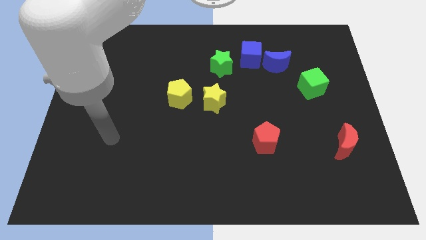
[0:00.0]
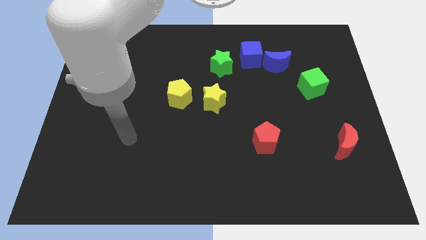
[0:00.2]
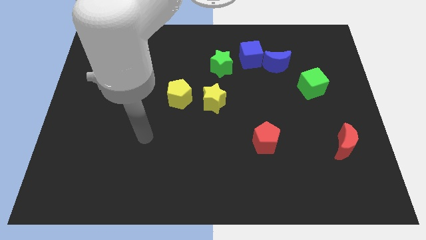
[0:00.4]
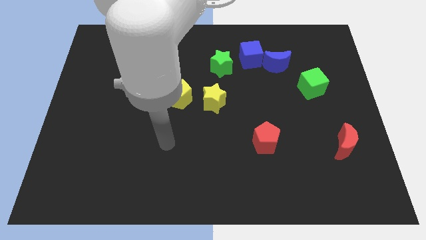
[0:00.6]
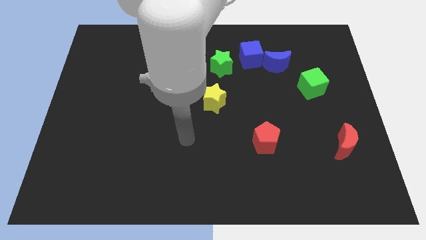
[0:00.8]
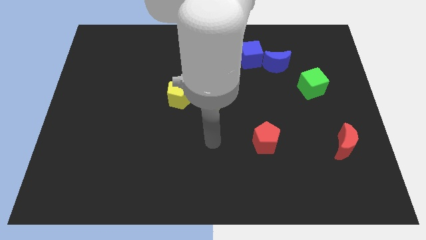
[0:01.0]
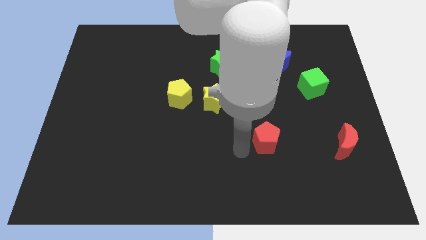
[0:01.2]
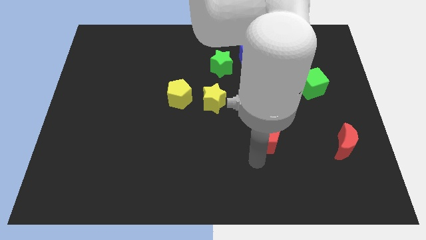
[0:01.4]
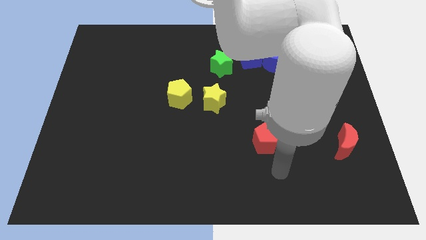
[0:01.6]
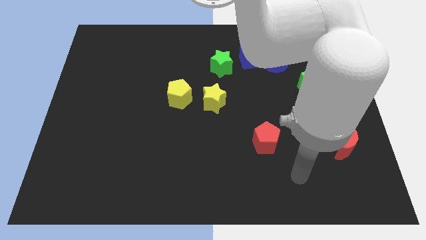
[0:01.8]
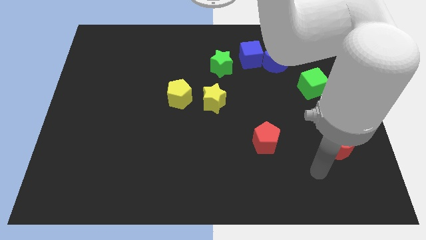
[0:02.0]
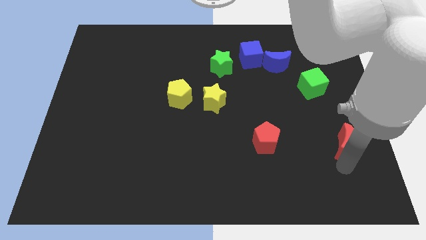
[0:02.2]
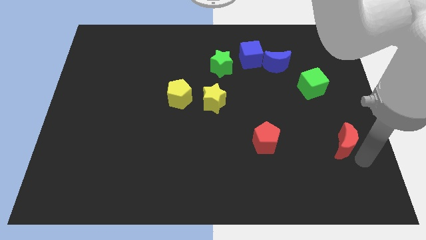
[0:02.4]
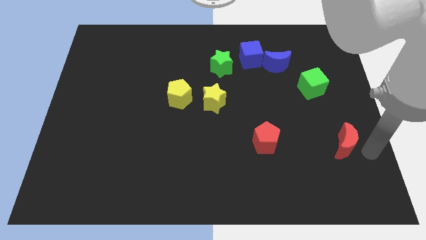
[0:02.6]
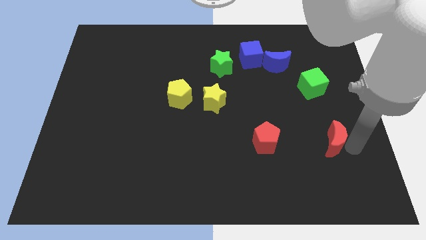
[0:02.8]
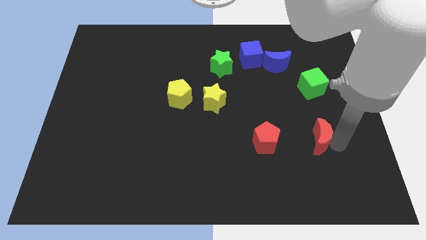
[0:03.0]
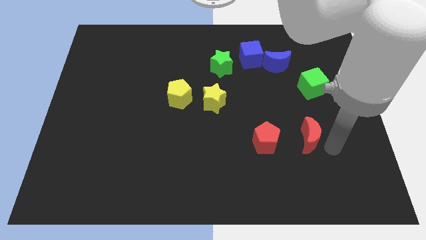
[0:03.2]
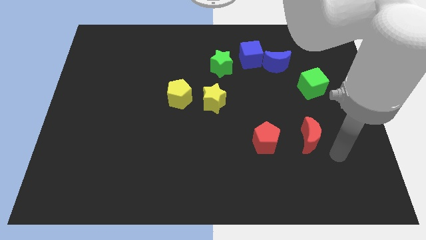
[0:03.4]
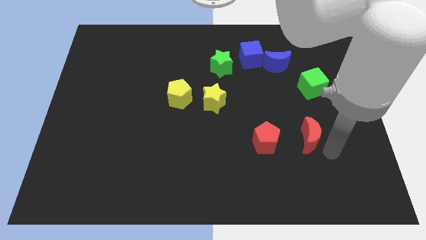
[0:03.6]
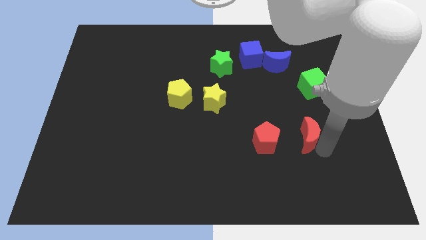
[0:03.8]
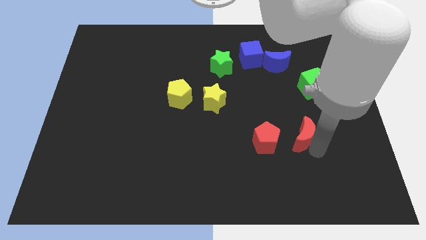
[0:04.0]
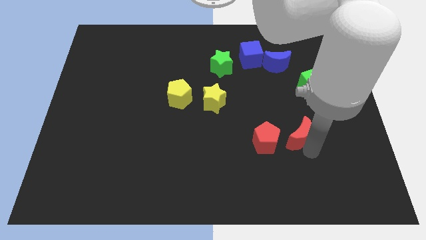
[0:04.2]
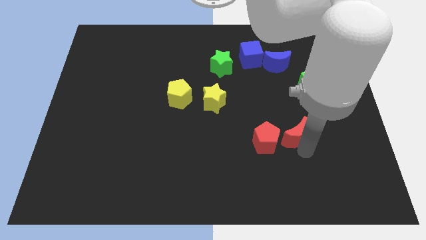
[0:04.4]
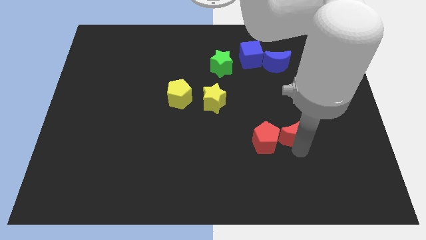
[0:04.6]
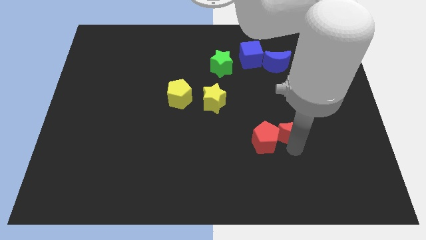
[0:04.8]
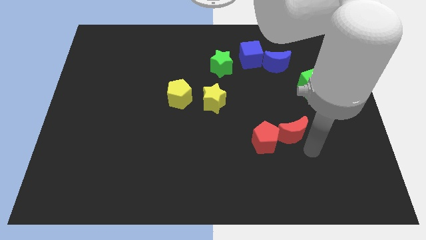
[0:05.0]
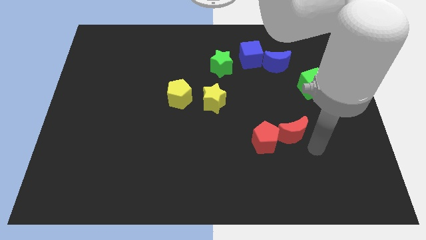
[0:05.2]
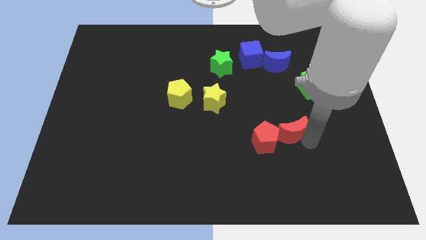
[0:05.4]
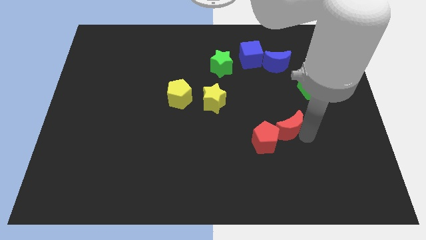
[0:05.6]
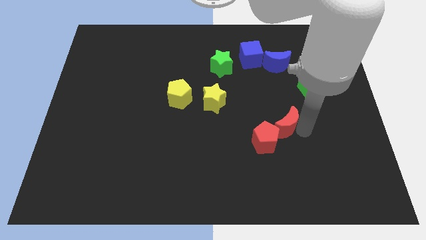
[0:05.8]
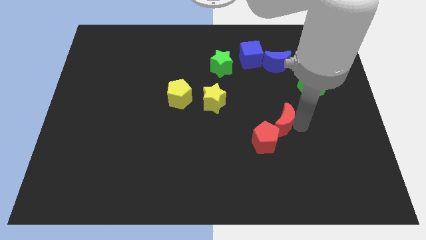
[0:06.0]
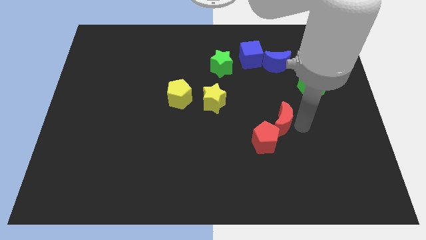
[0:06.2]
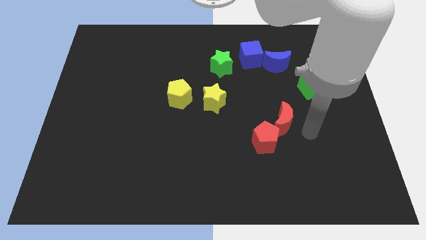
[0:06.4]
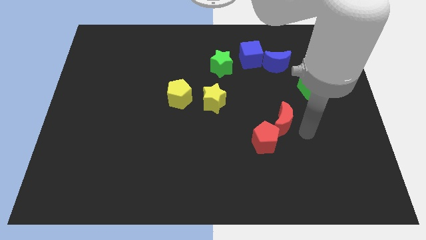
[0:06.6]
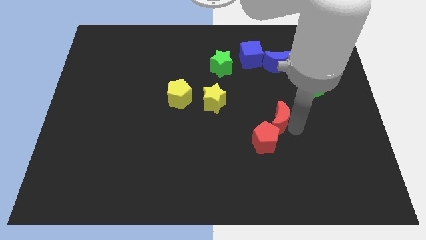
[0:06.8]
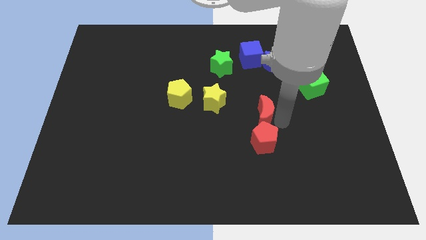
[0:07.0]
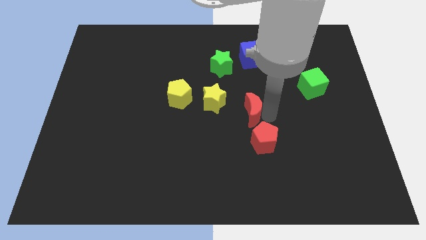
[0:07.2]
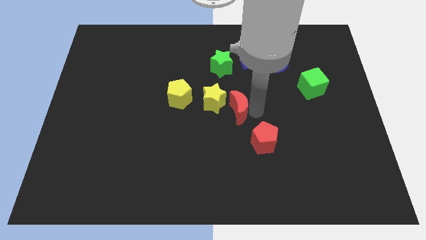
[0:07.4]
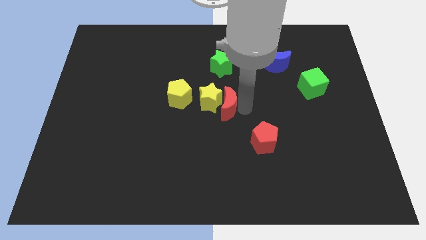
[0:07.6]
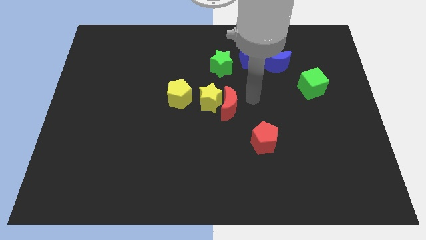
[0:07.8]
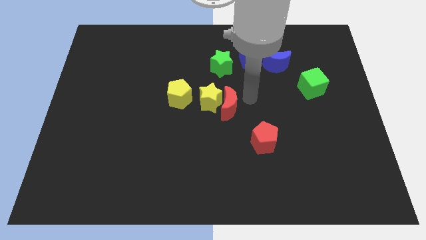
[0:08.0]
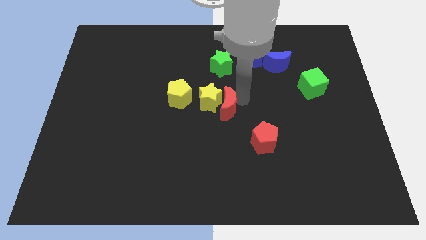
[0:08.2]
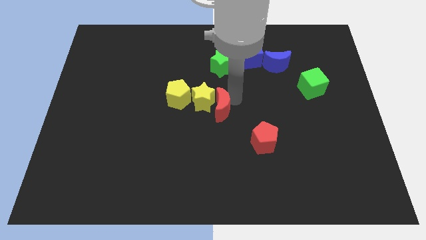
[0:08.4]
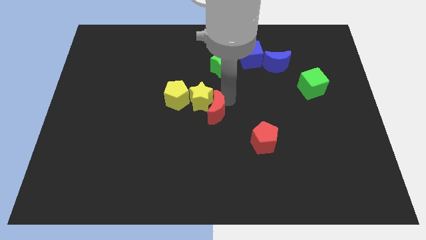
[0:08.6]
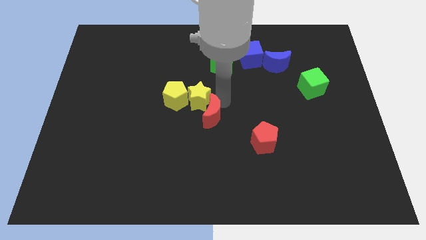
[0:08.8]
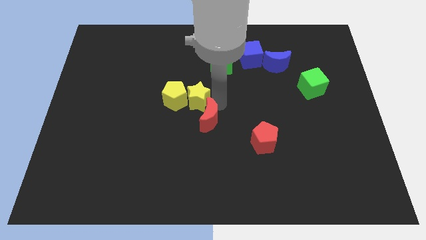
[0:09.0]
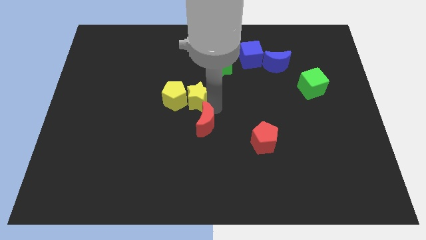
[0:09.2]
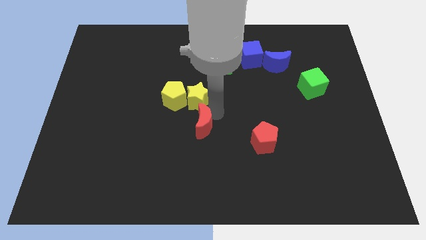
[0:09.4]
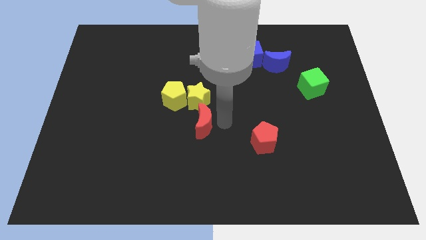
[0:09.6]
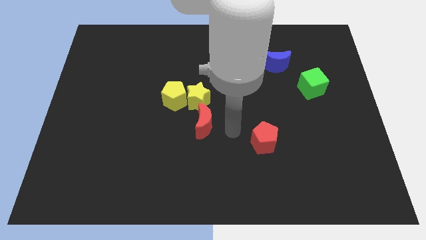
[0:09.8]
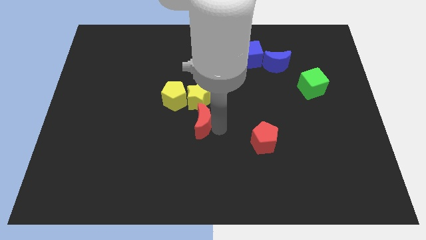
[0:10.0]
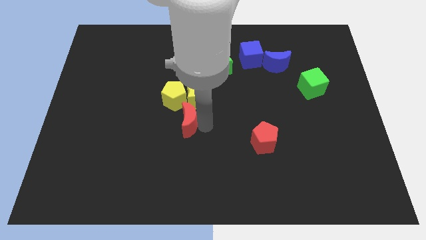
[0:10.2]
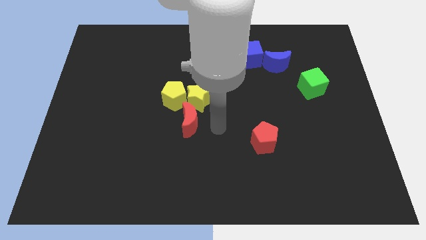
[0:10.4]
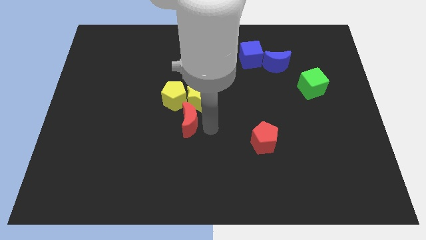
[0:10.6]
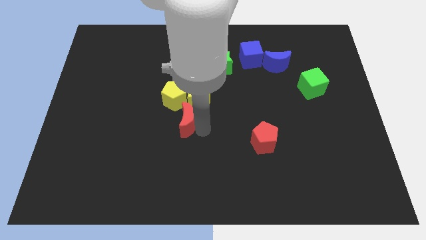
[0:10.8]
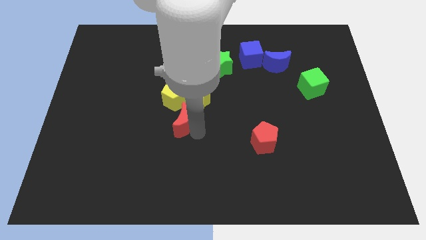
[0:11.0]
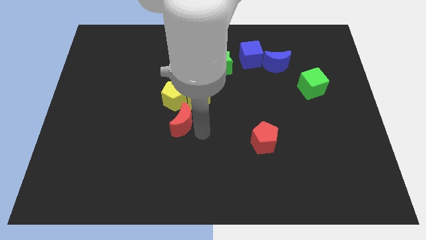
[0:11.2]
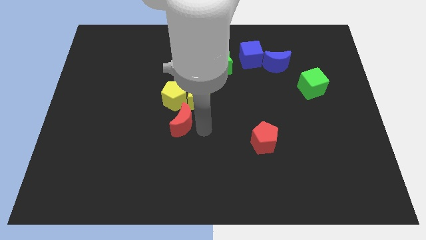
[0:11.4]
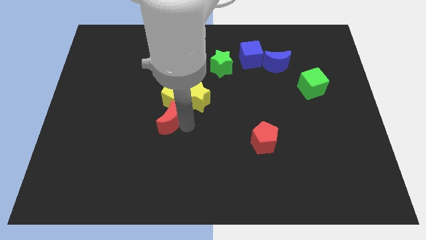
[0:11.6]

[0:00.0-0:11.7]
put the red moon to the bottom left of the yellow pentagon

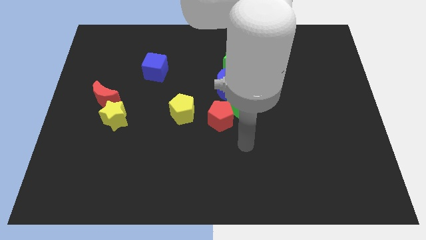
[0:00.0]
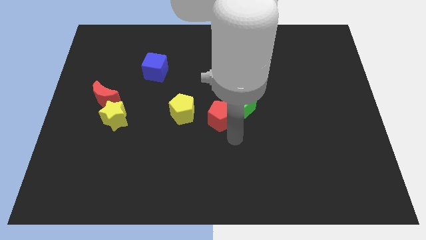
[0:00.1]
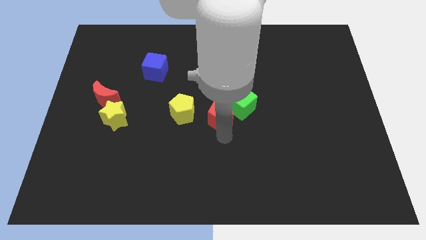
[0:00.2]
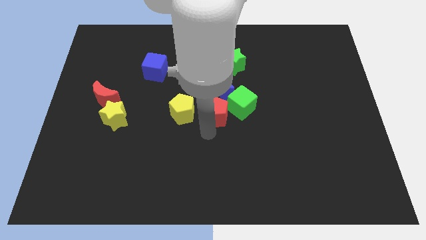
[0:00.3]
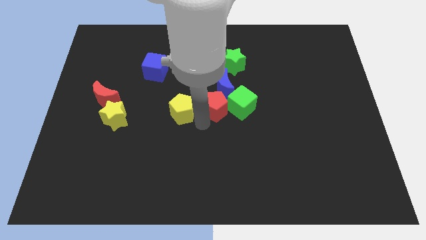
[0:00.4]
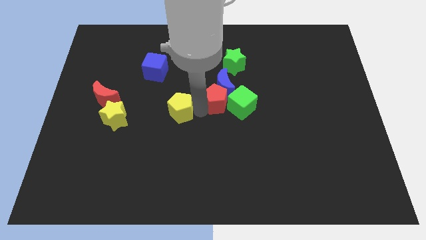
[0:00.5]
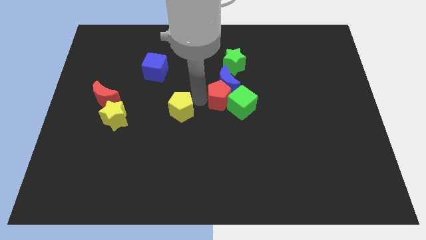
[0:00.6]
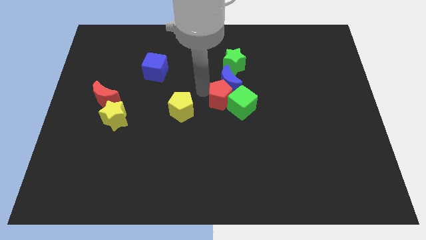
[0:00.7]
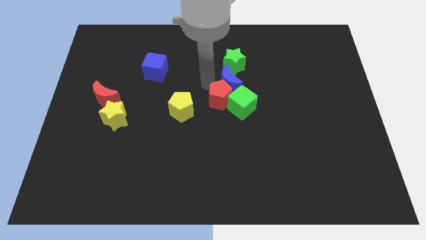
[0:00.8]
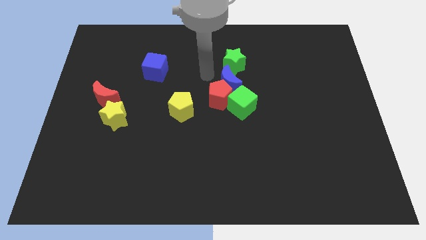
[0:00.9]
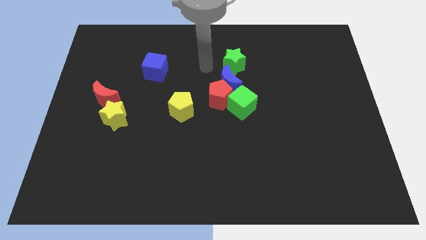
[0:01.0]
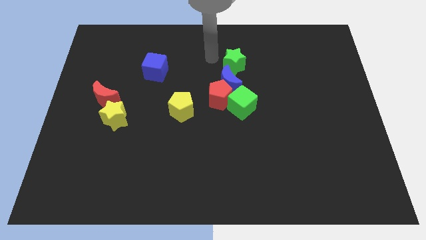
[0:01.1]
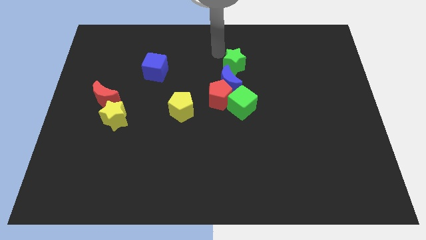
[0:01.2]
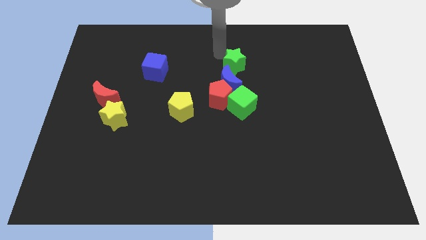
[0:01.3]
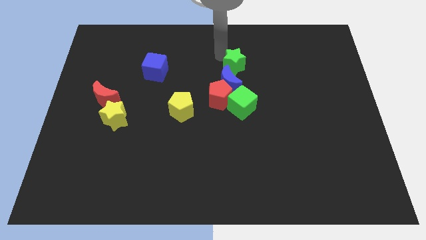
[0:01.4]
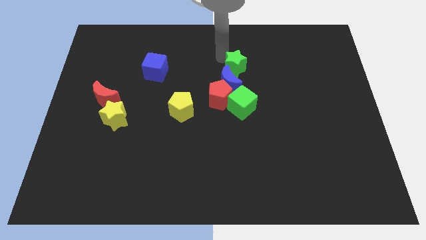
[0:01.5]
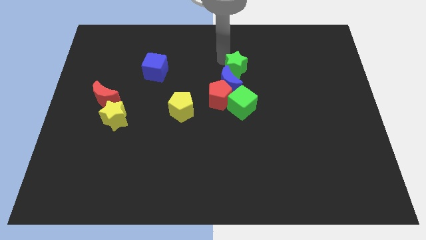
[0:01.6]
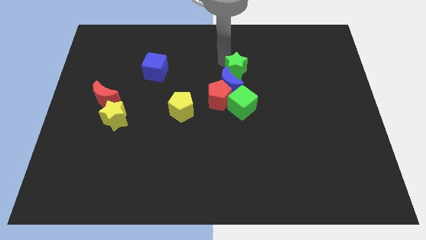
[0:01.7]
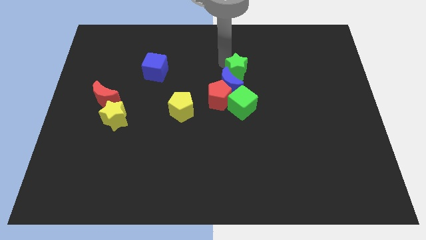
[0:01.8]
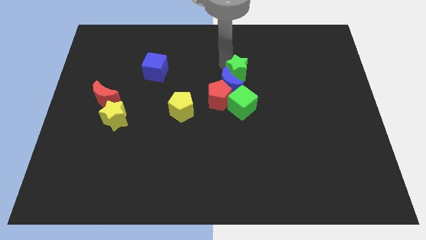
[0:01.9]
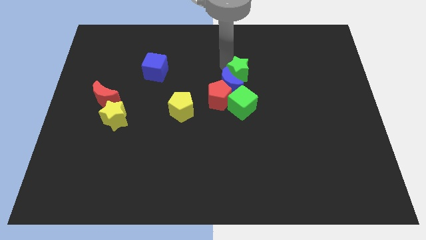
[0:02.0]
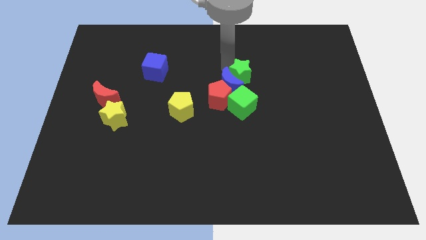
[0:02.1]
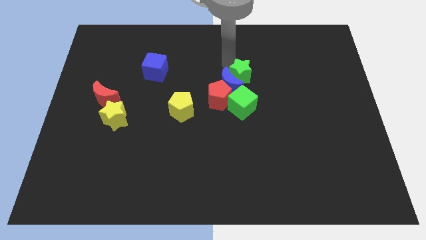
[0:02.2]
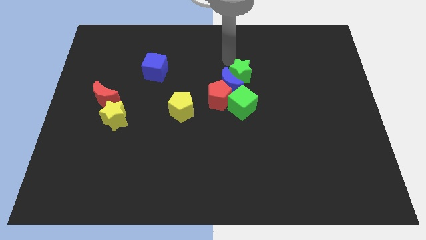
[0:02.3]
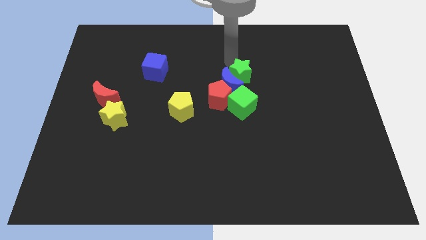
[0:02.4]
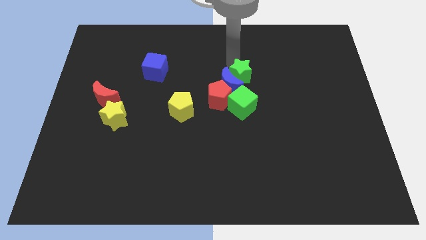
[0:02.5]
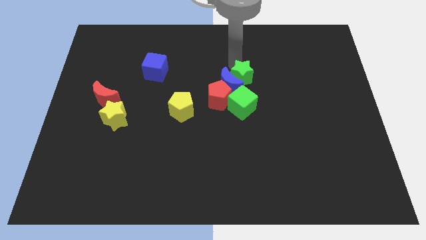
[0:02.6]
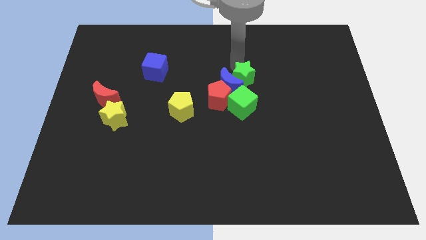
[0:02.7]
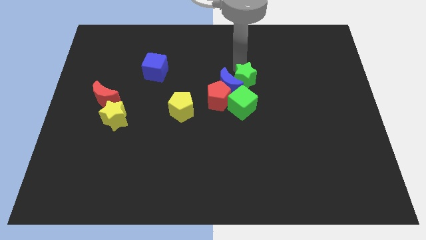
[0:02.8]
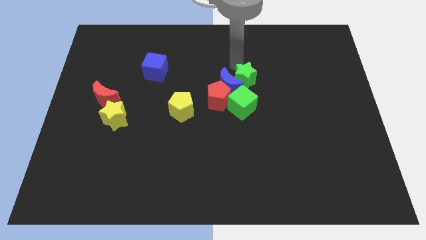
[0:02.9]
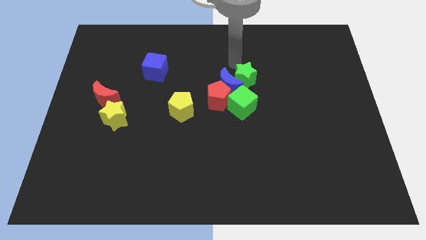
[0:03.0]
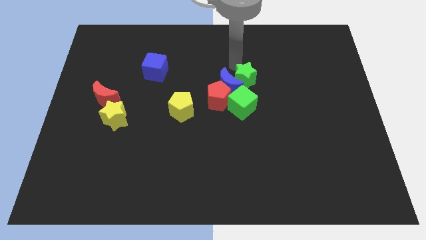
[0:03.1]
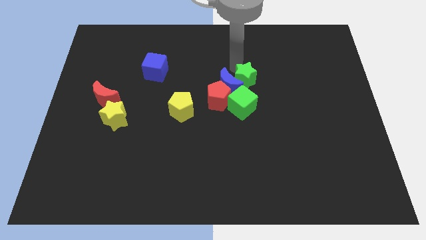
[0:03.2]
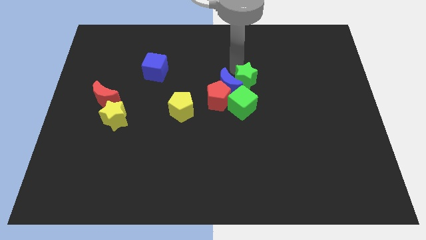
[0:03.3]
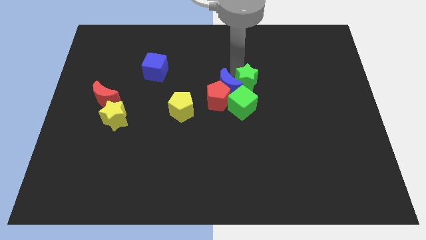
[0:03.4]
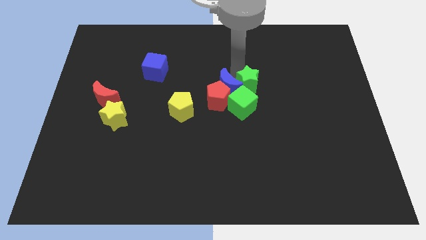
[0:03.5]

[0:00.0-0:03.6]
put the green star to the bottom right side of the blue moon
